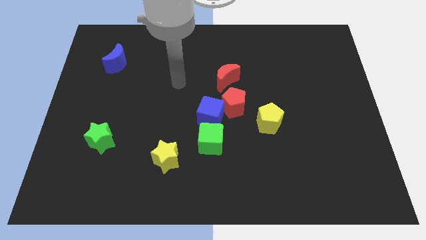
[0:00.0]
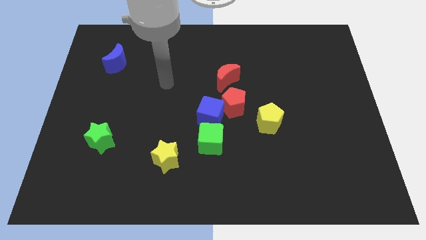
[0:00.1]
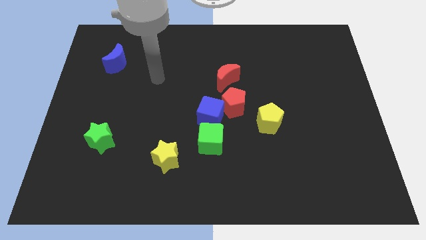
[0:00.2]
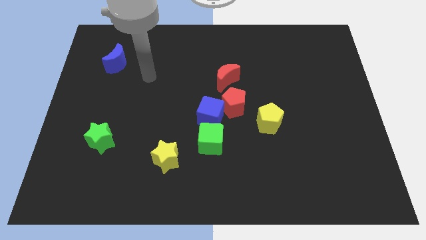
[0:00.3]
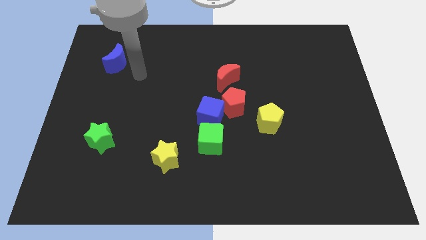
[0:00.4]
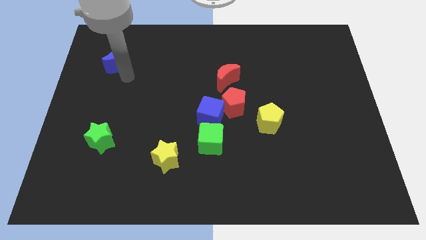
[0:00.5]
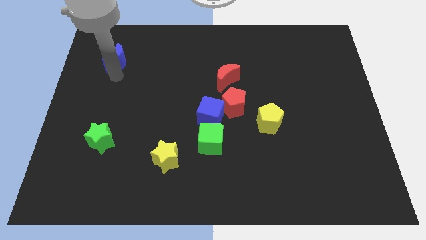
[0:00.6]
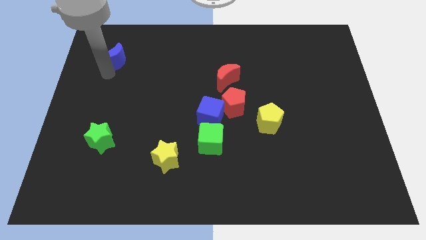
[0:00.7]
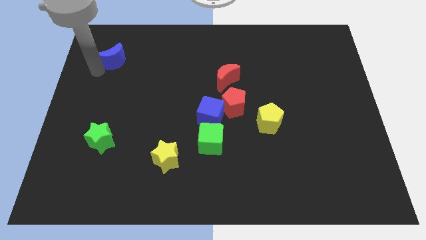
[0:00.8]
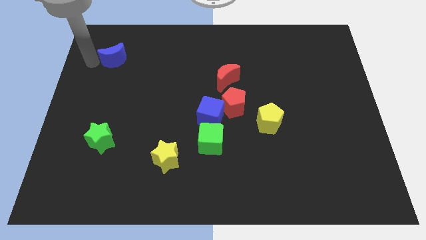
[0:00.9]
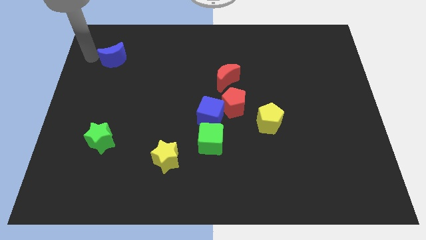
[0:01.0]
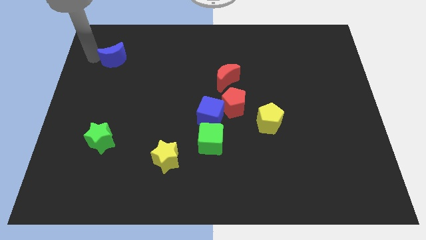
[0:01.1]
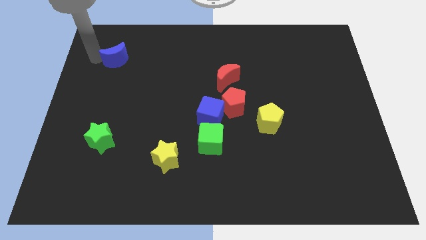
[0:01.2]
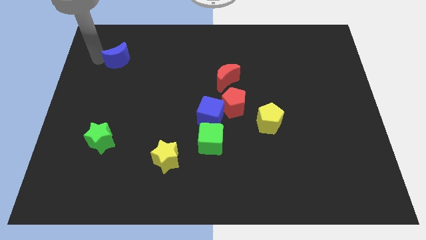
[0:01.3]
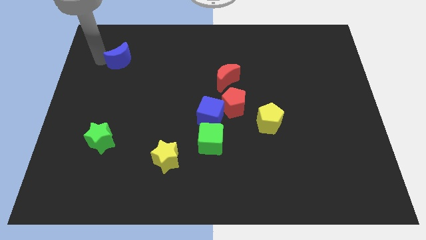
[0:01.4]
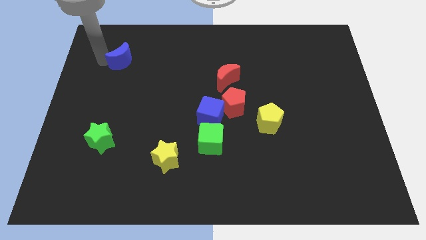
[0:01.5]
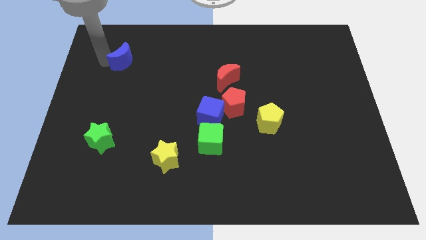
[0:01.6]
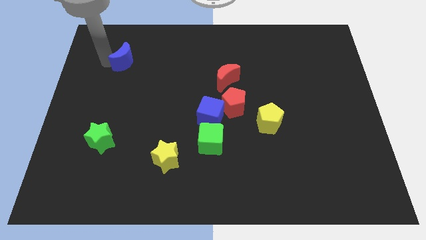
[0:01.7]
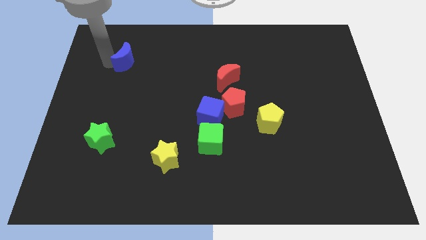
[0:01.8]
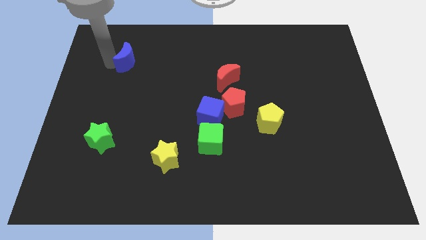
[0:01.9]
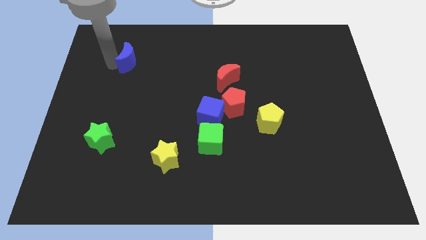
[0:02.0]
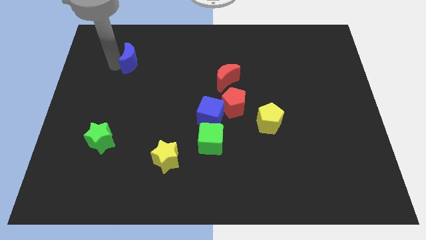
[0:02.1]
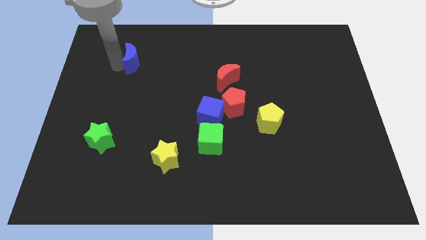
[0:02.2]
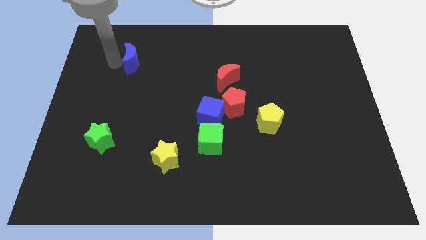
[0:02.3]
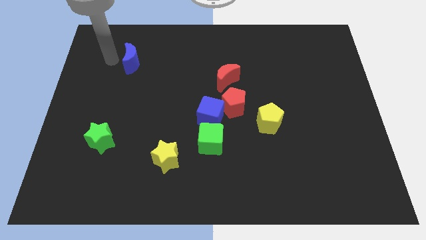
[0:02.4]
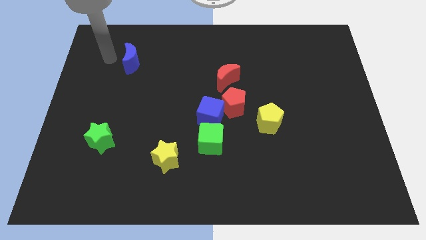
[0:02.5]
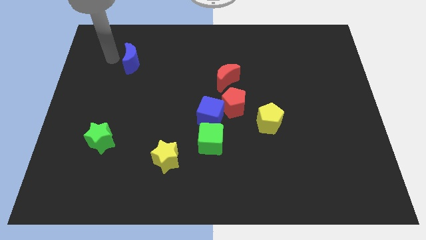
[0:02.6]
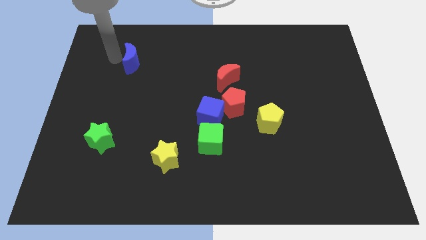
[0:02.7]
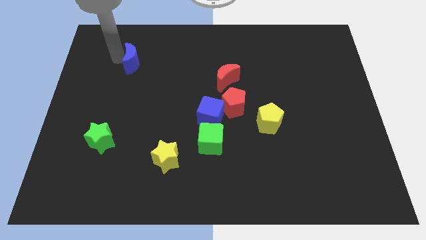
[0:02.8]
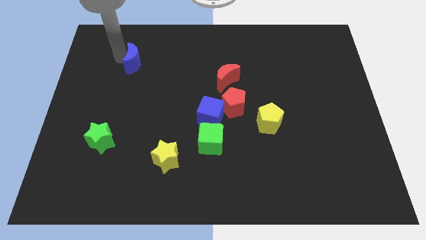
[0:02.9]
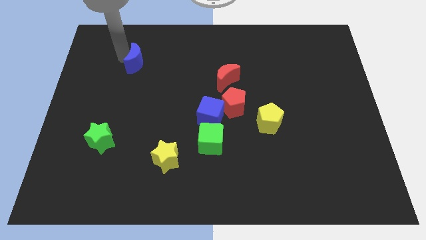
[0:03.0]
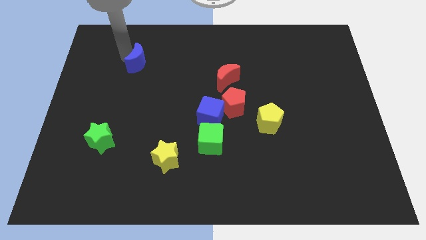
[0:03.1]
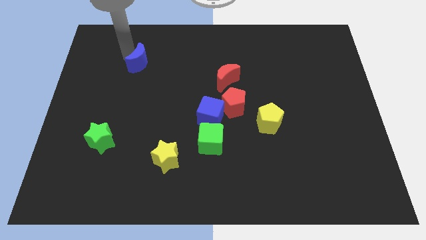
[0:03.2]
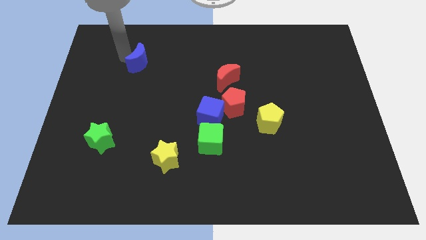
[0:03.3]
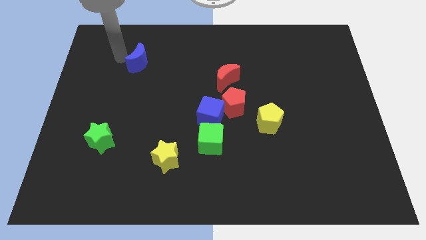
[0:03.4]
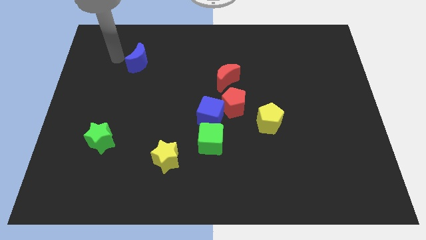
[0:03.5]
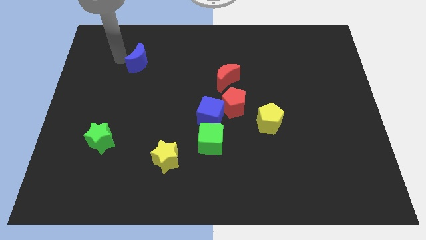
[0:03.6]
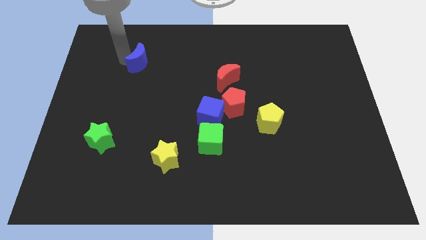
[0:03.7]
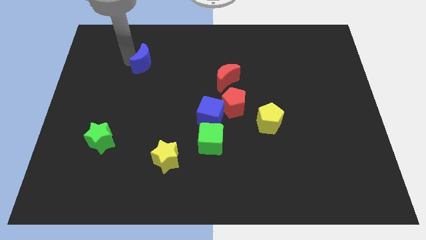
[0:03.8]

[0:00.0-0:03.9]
slightly slide the blue moon to the right

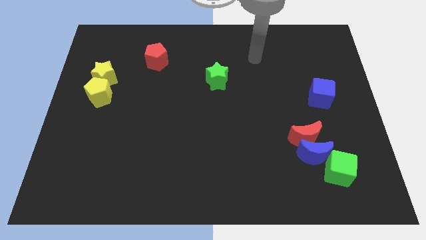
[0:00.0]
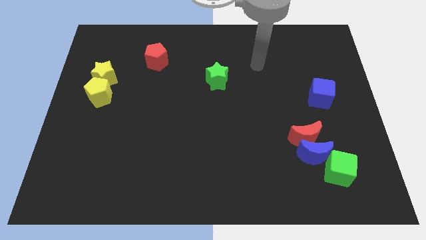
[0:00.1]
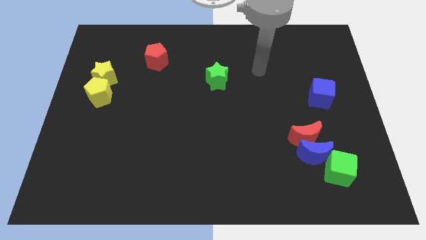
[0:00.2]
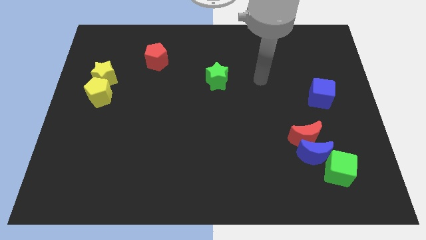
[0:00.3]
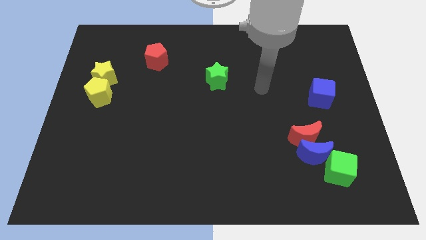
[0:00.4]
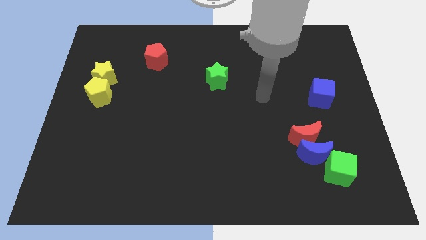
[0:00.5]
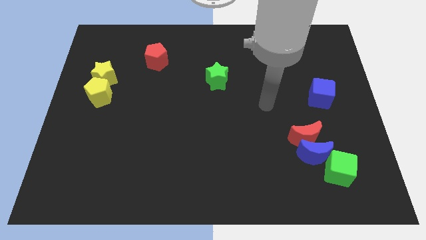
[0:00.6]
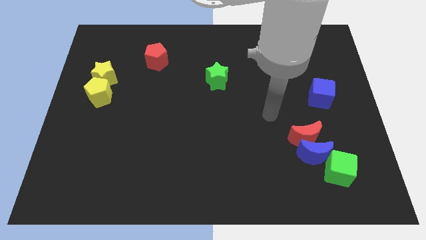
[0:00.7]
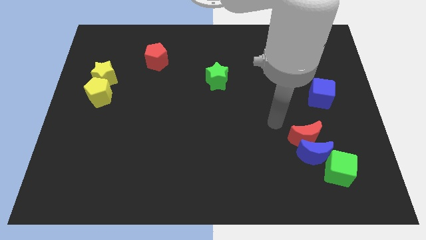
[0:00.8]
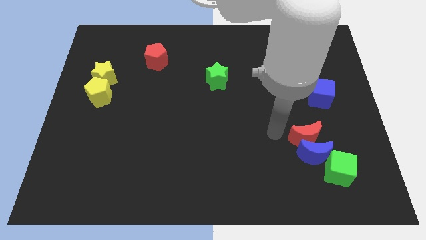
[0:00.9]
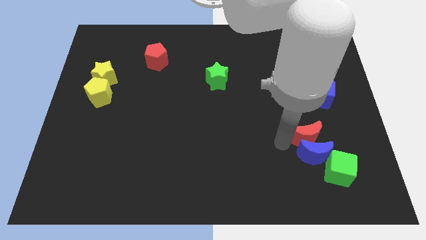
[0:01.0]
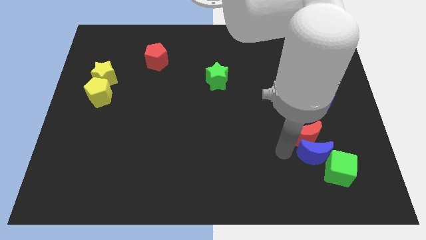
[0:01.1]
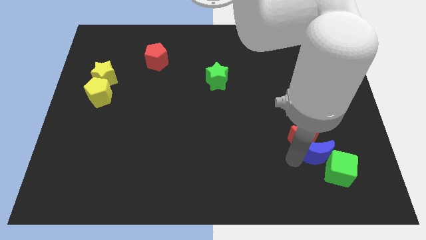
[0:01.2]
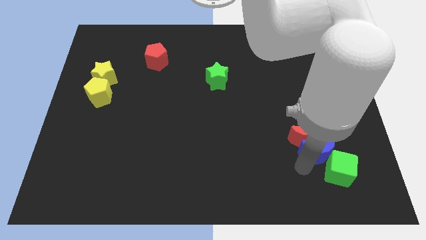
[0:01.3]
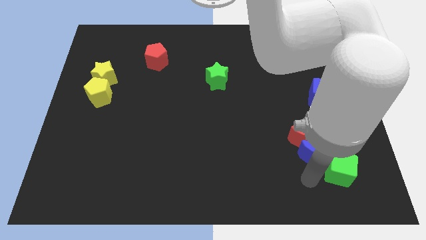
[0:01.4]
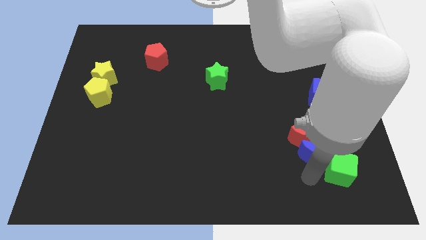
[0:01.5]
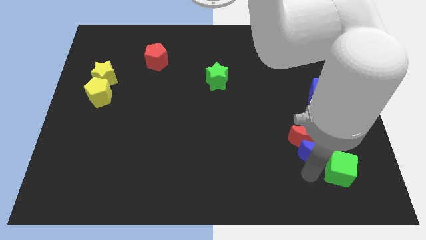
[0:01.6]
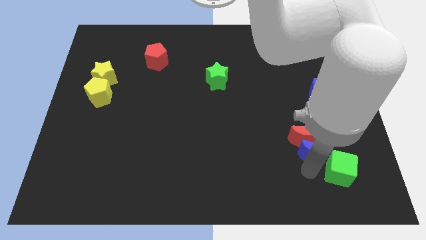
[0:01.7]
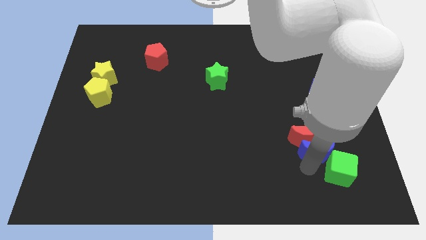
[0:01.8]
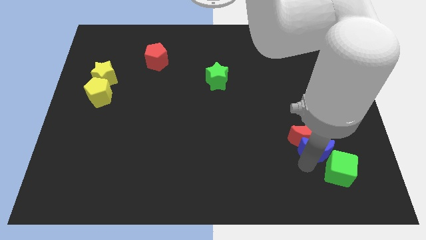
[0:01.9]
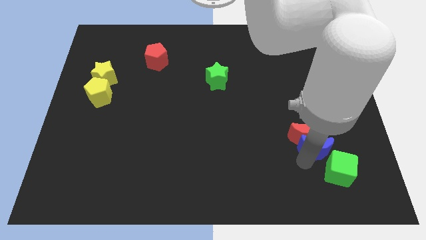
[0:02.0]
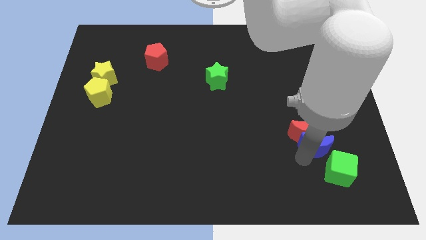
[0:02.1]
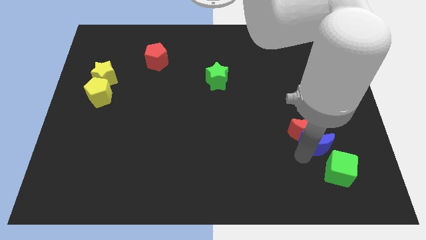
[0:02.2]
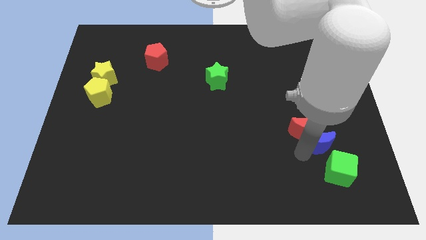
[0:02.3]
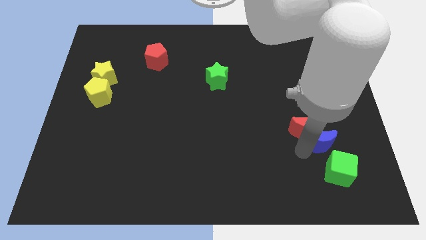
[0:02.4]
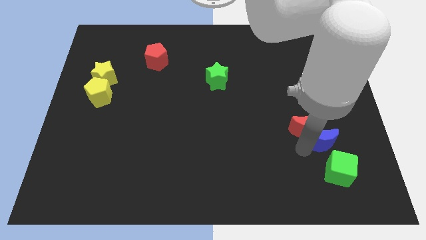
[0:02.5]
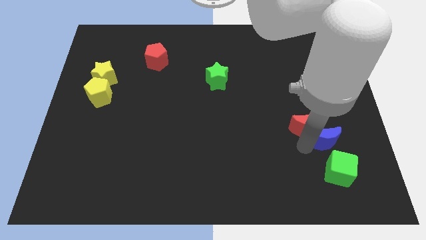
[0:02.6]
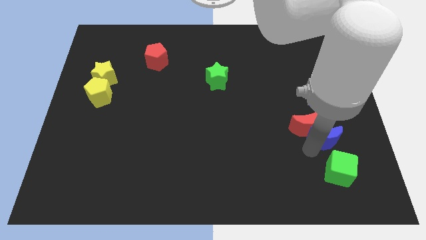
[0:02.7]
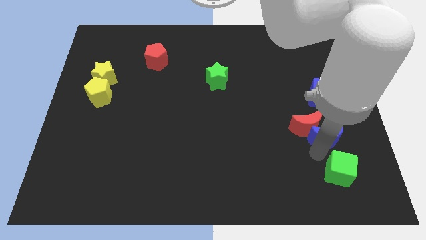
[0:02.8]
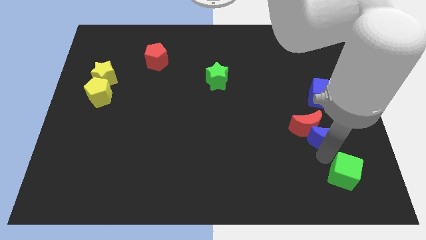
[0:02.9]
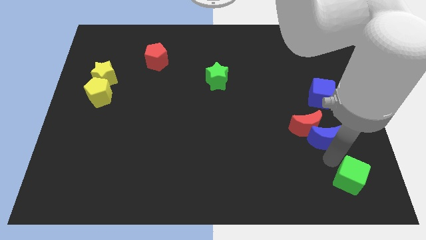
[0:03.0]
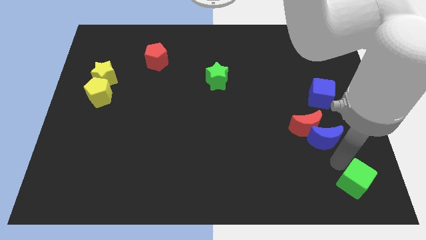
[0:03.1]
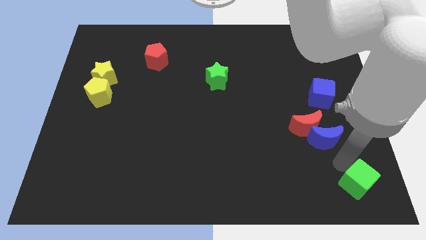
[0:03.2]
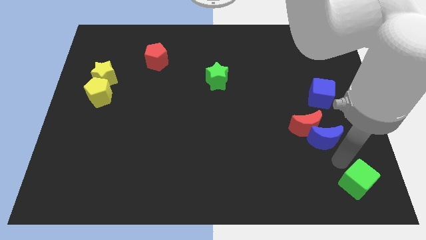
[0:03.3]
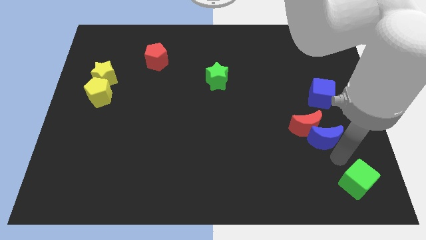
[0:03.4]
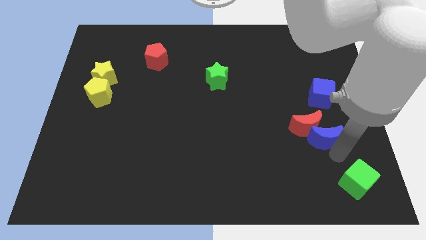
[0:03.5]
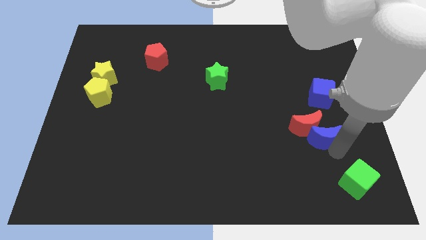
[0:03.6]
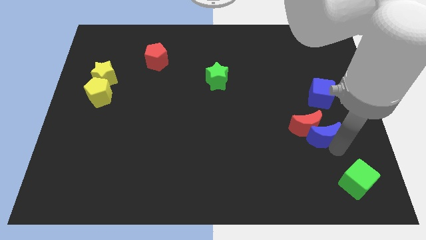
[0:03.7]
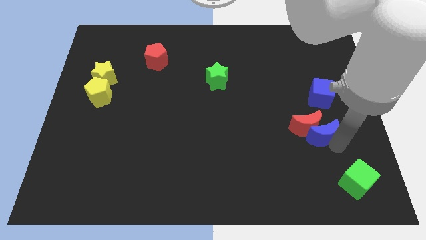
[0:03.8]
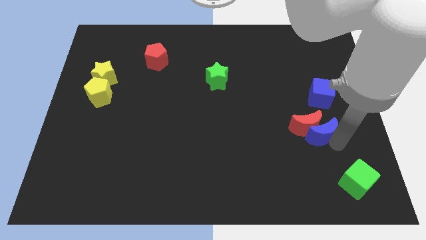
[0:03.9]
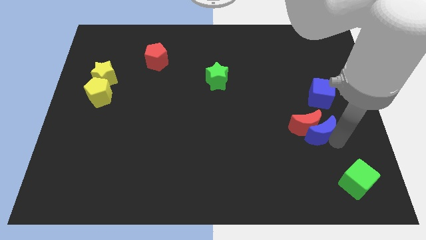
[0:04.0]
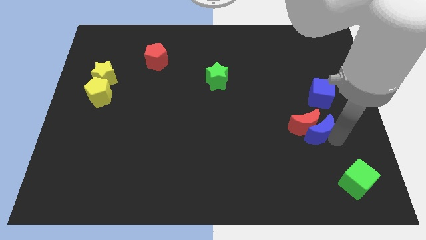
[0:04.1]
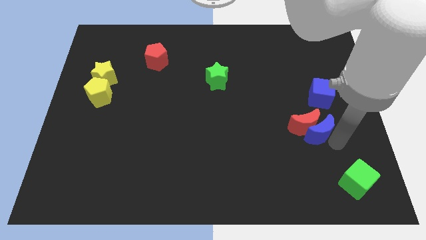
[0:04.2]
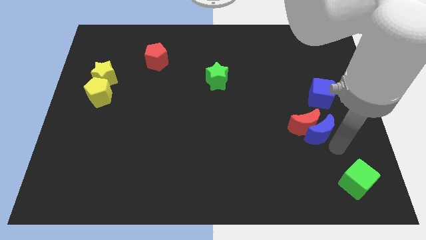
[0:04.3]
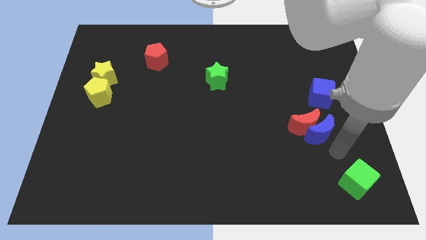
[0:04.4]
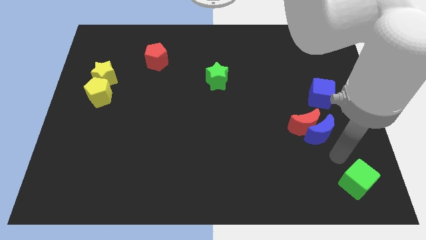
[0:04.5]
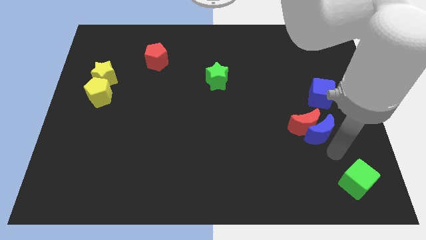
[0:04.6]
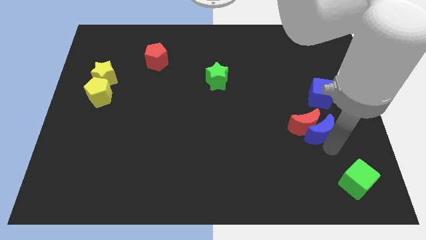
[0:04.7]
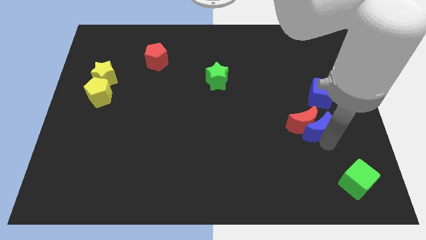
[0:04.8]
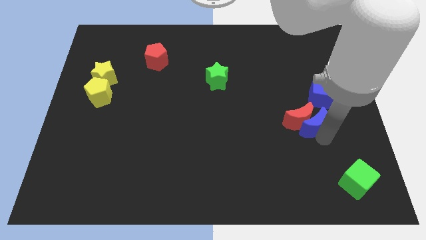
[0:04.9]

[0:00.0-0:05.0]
slide the blue moon upwards a little
